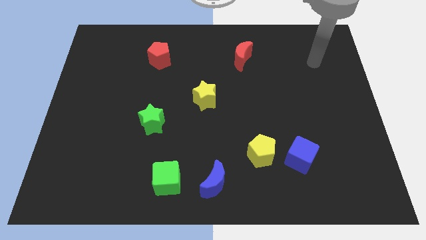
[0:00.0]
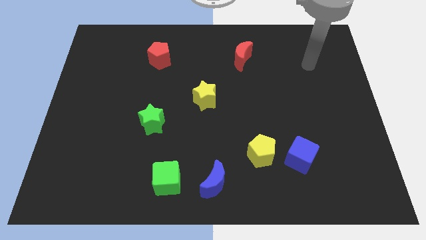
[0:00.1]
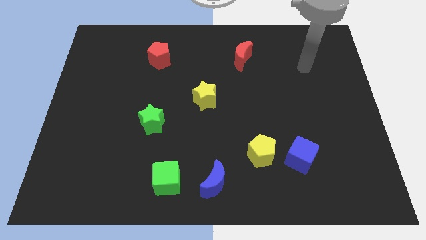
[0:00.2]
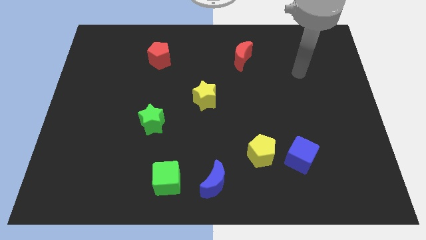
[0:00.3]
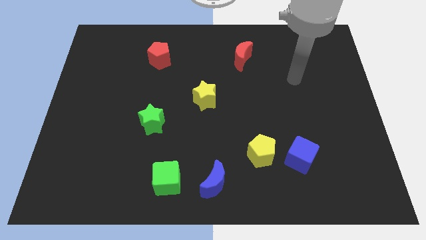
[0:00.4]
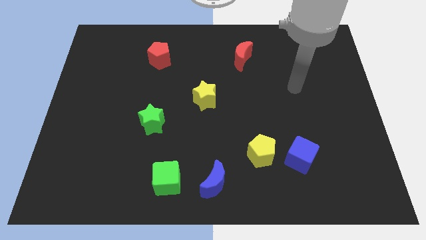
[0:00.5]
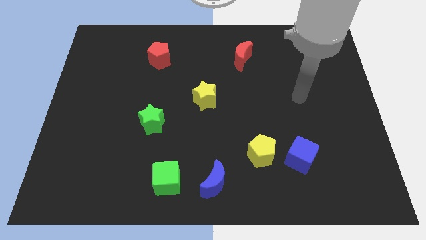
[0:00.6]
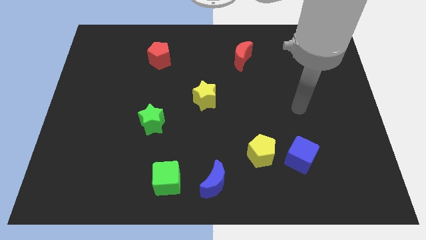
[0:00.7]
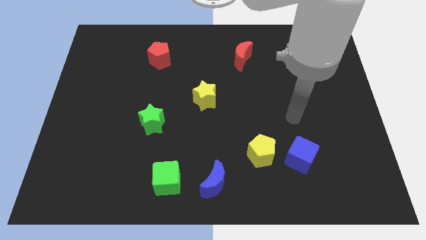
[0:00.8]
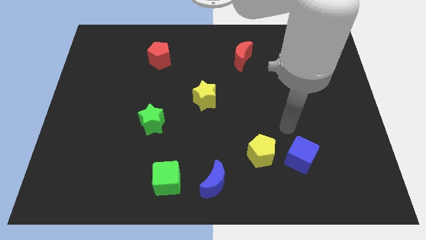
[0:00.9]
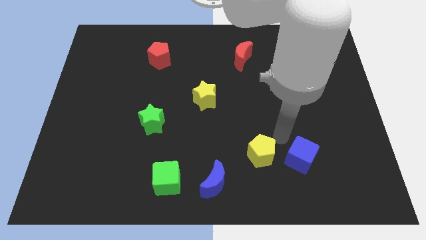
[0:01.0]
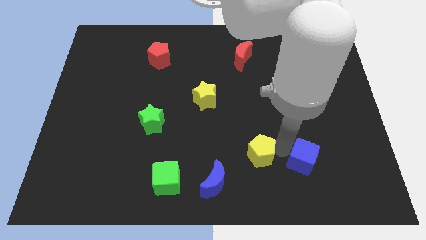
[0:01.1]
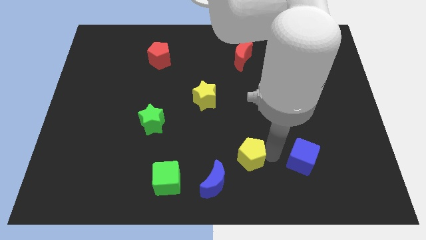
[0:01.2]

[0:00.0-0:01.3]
pull the blue cube apart from the yellow pentagon

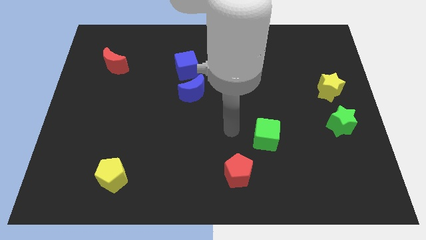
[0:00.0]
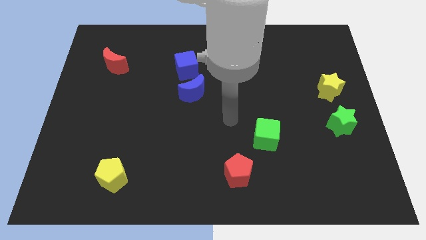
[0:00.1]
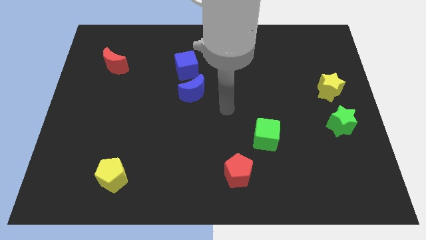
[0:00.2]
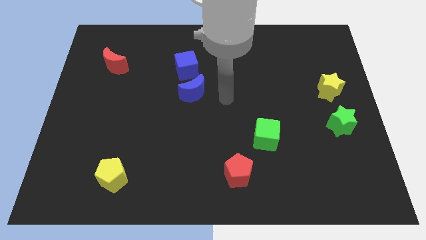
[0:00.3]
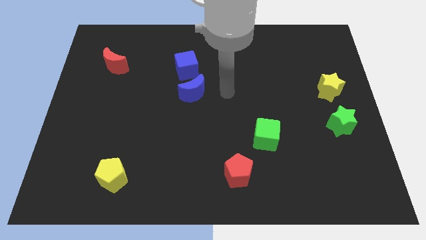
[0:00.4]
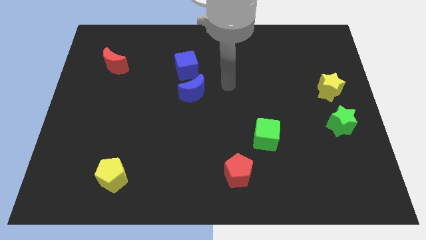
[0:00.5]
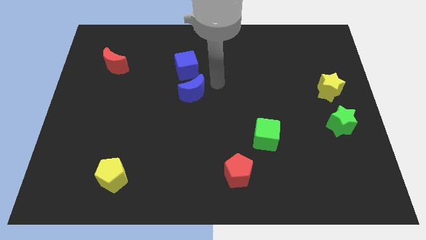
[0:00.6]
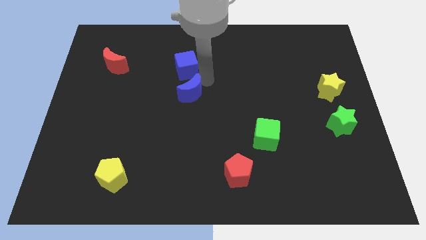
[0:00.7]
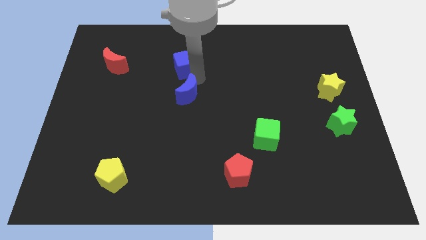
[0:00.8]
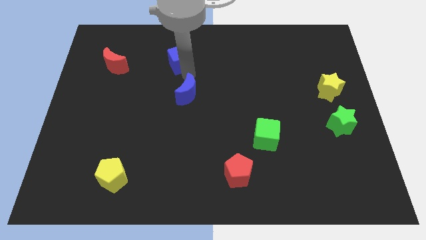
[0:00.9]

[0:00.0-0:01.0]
separate the blue moon from the blue cube

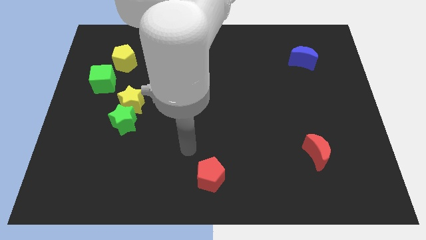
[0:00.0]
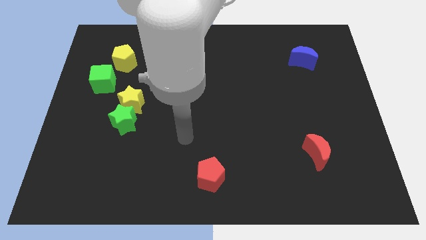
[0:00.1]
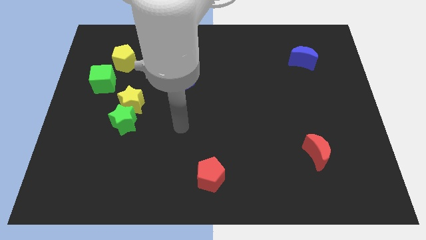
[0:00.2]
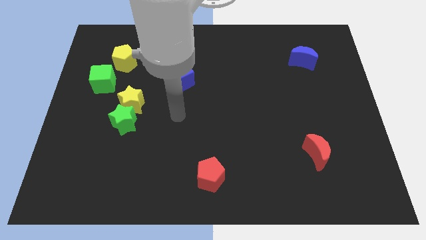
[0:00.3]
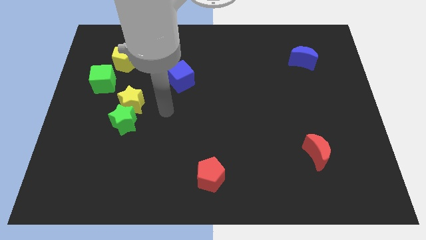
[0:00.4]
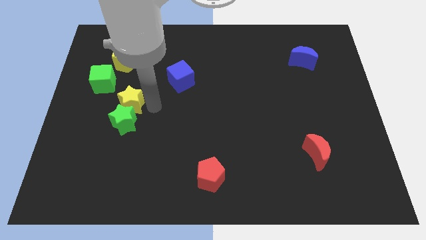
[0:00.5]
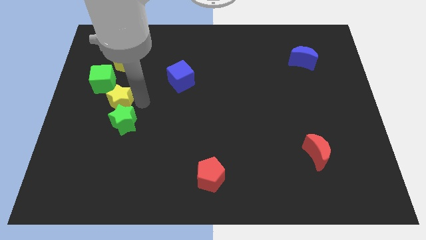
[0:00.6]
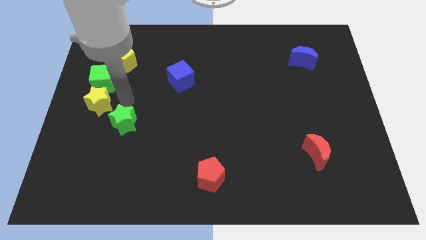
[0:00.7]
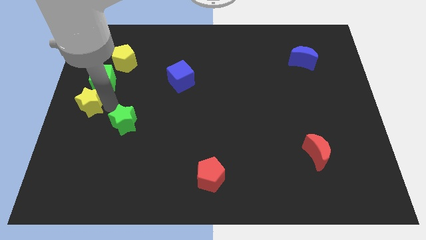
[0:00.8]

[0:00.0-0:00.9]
move the green star away from the yellow star

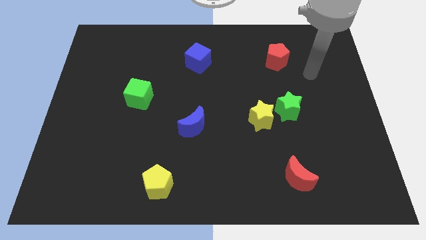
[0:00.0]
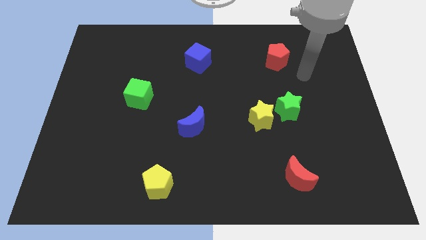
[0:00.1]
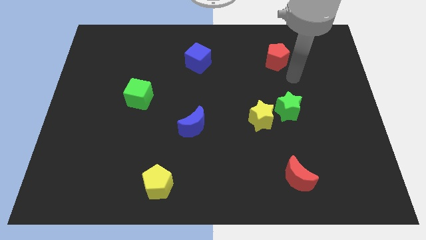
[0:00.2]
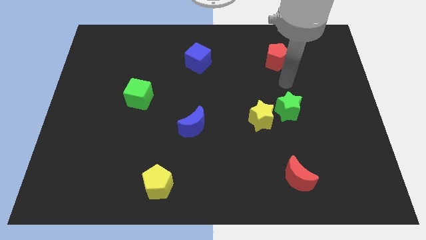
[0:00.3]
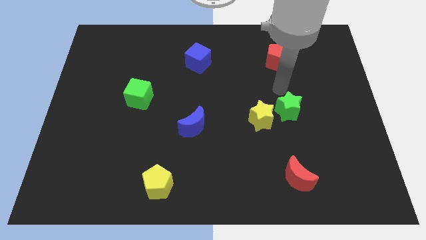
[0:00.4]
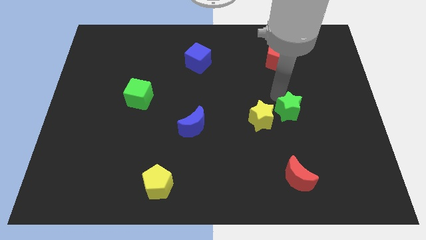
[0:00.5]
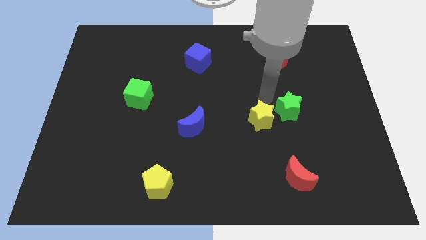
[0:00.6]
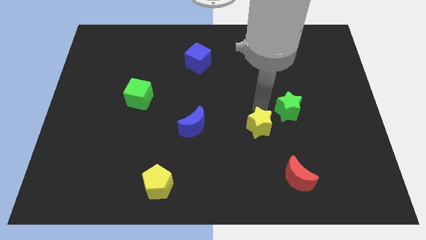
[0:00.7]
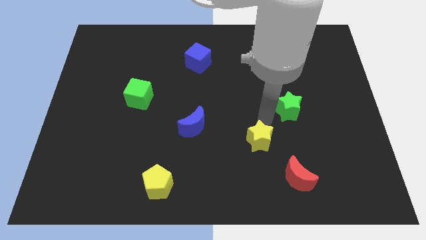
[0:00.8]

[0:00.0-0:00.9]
separate the green star from the yellow star

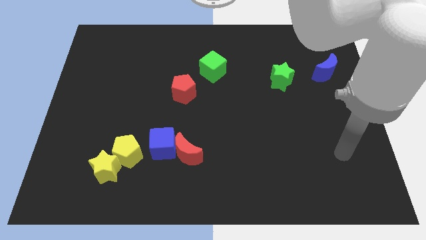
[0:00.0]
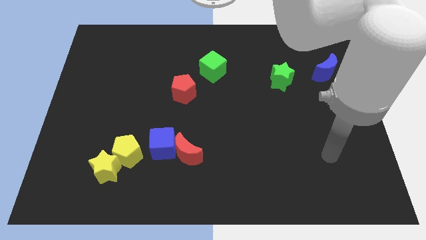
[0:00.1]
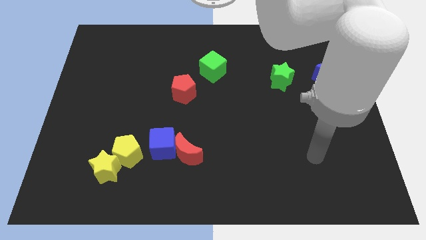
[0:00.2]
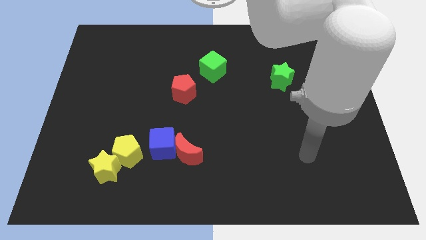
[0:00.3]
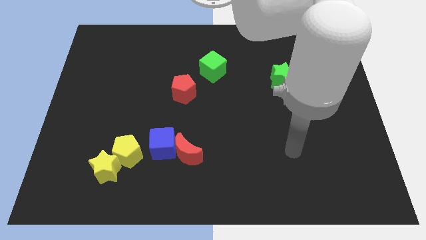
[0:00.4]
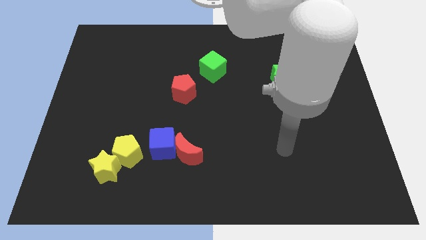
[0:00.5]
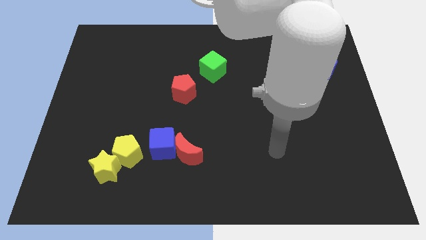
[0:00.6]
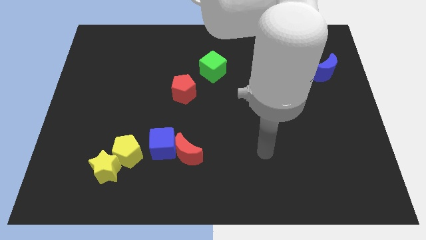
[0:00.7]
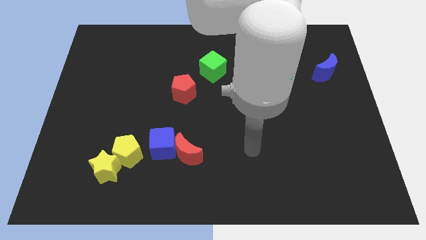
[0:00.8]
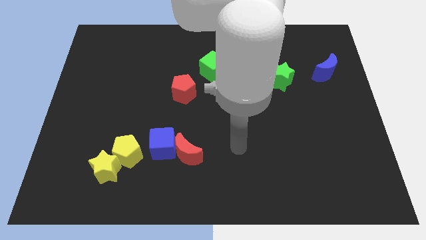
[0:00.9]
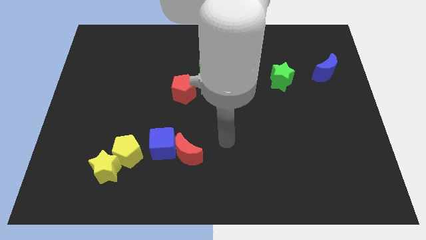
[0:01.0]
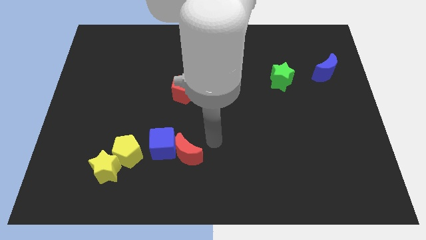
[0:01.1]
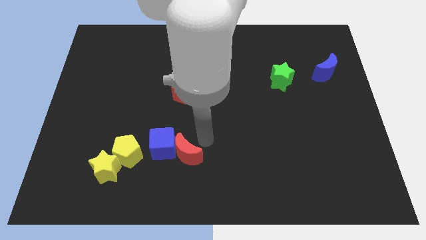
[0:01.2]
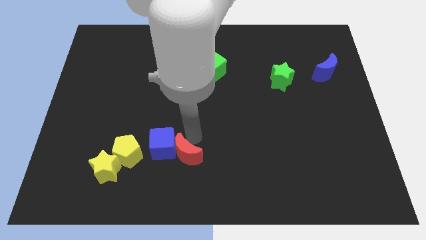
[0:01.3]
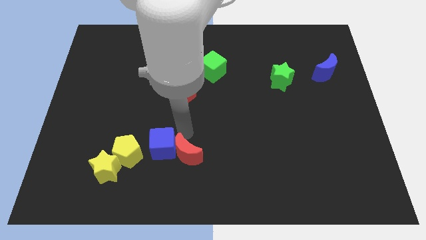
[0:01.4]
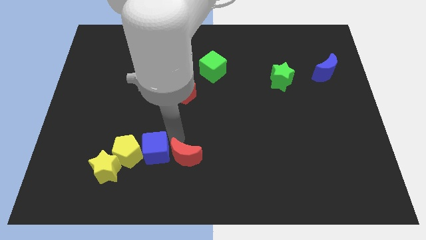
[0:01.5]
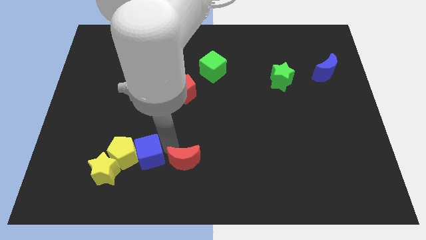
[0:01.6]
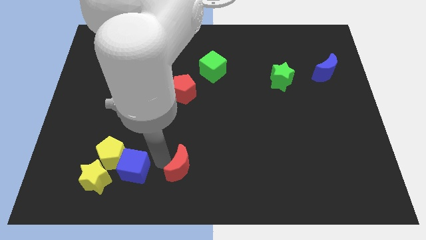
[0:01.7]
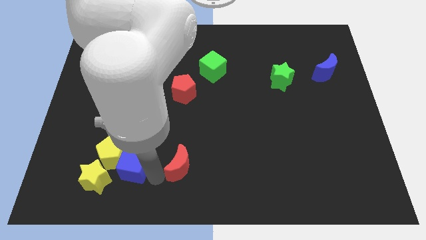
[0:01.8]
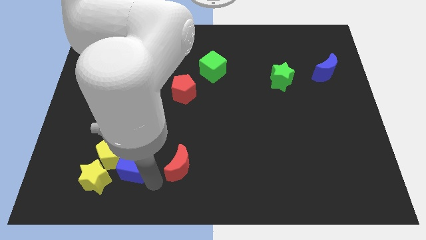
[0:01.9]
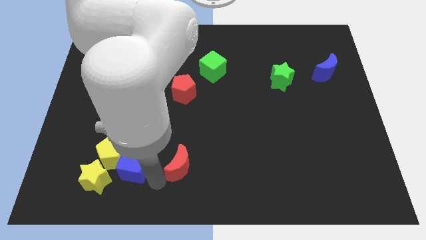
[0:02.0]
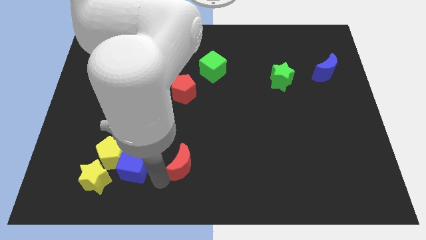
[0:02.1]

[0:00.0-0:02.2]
move the red moon away from the blue cube

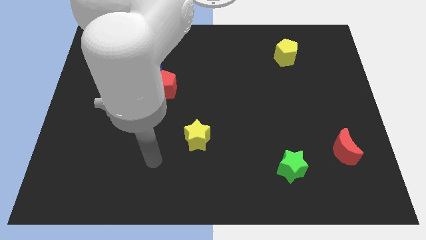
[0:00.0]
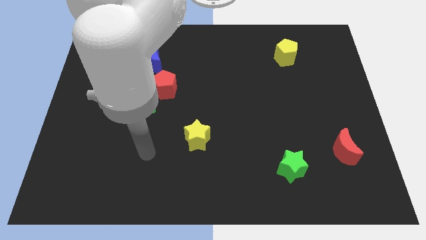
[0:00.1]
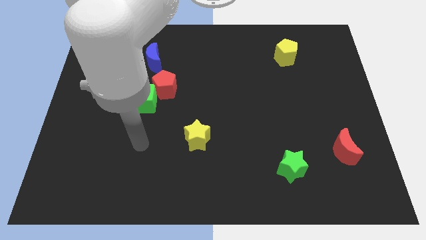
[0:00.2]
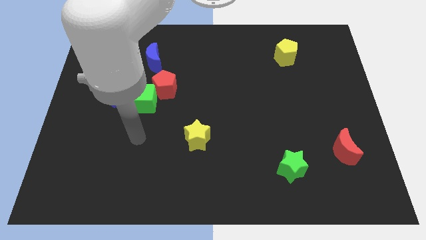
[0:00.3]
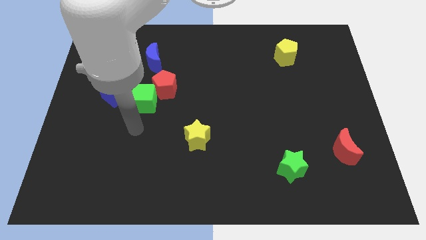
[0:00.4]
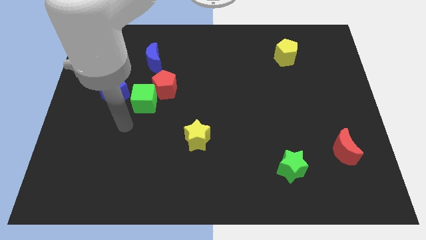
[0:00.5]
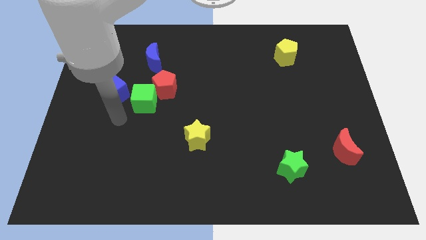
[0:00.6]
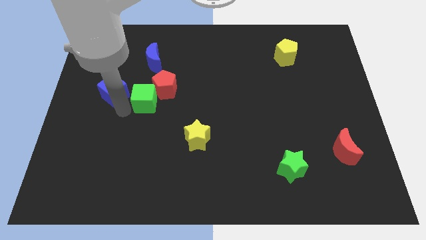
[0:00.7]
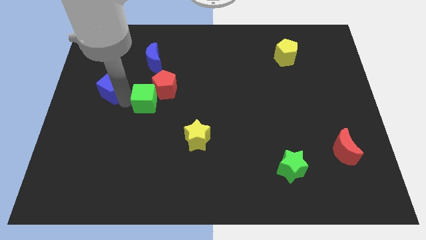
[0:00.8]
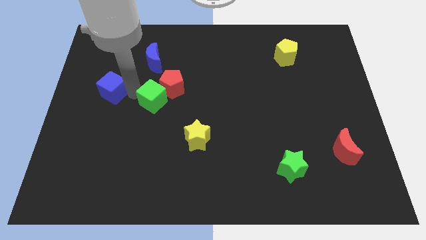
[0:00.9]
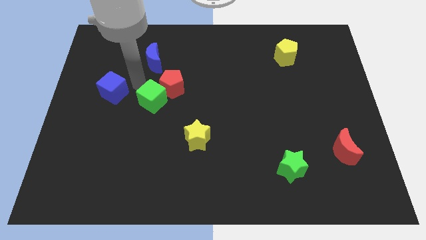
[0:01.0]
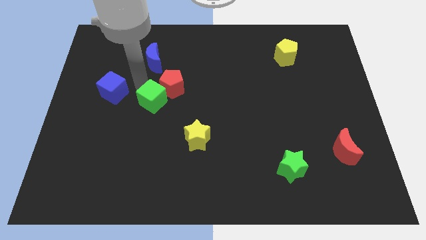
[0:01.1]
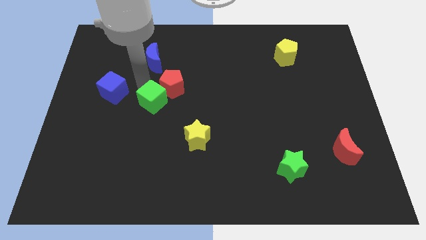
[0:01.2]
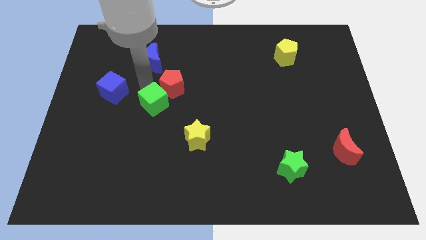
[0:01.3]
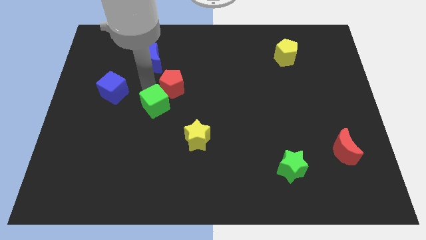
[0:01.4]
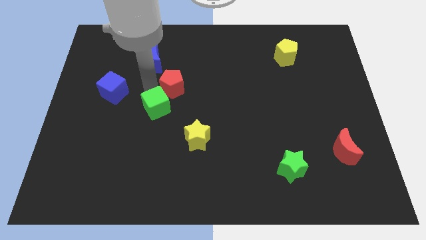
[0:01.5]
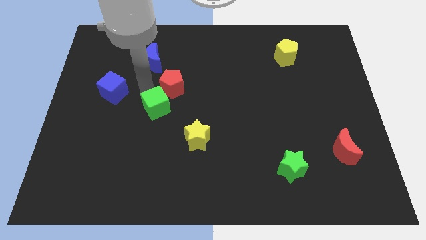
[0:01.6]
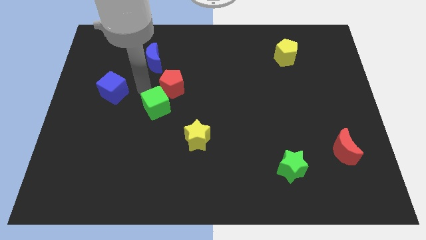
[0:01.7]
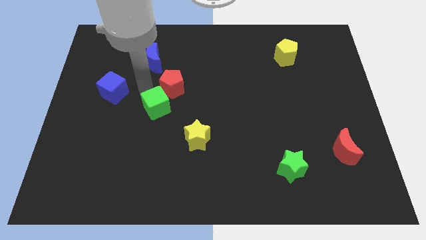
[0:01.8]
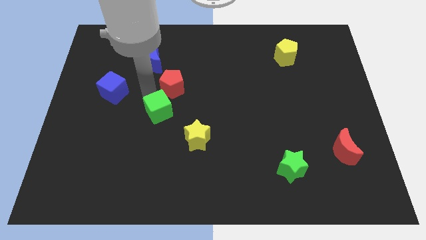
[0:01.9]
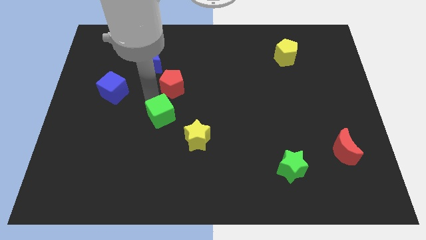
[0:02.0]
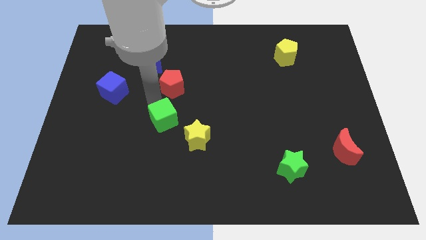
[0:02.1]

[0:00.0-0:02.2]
move the green cube away from the red pentagon and blue cube

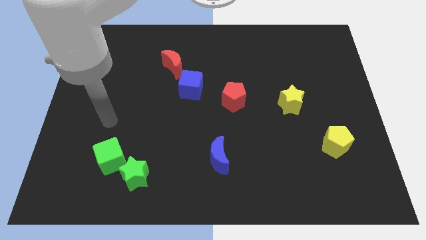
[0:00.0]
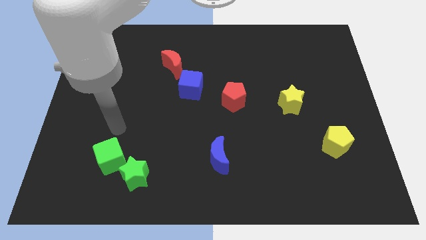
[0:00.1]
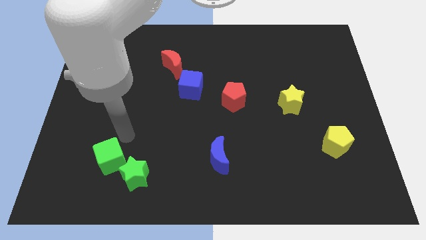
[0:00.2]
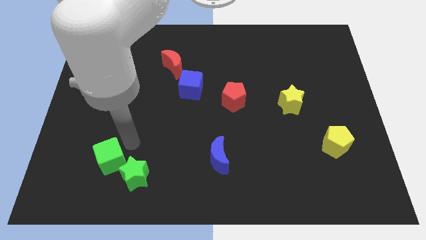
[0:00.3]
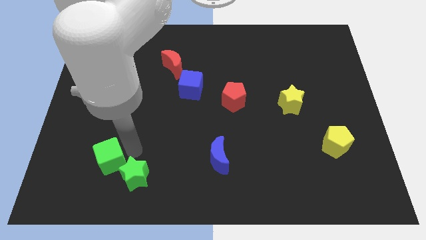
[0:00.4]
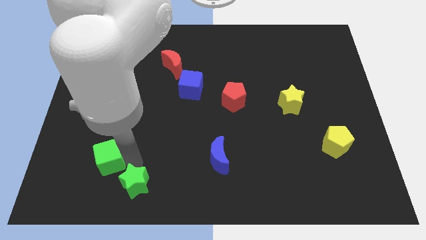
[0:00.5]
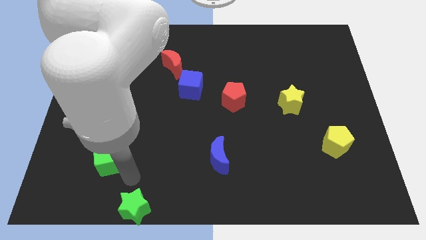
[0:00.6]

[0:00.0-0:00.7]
pull the green cube apart from the green star

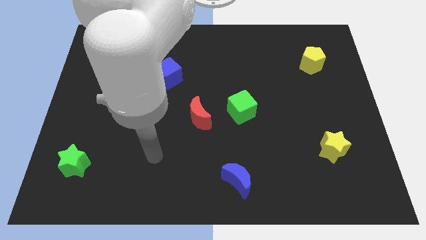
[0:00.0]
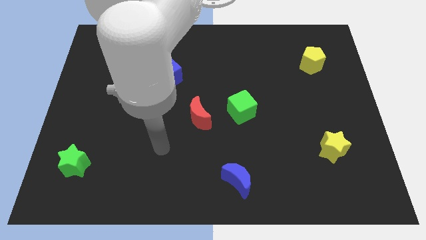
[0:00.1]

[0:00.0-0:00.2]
move the red moon away from the green cube
